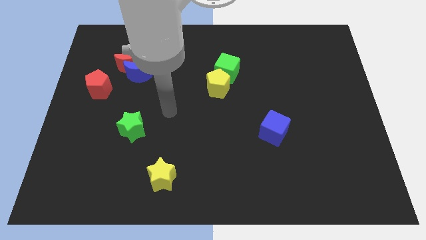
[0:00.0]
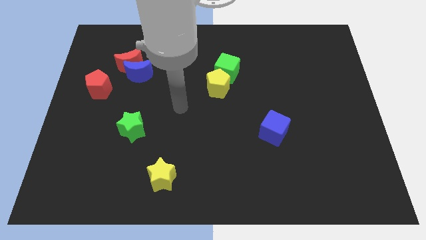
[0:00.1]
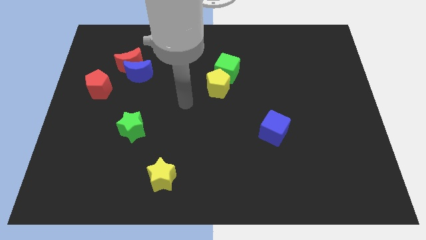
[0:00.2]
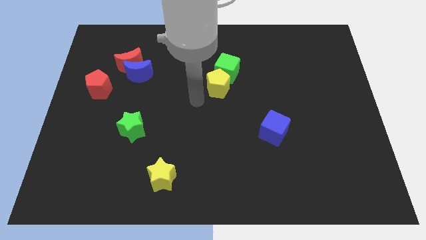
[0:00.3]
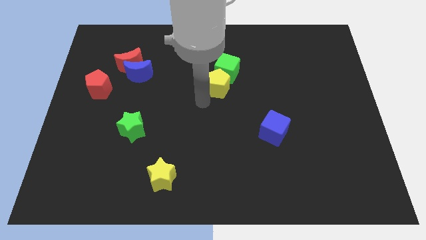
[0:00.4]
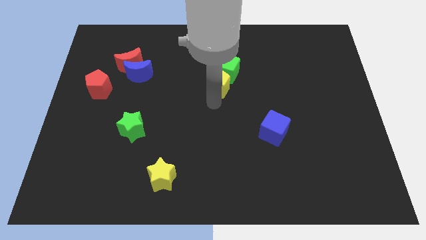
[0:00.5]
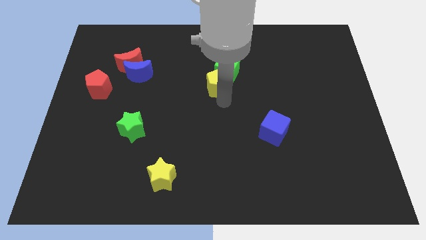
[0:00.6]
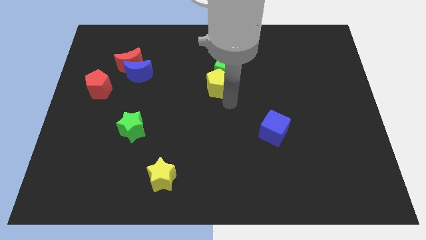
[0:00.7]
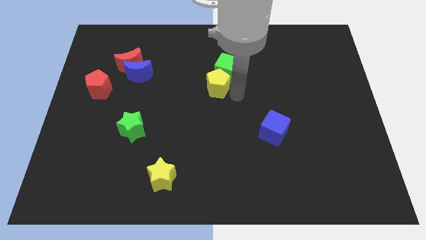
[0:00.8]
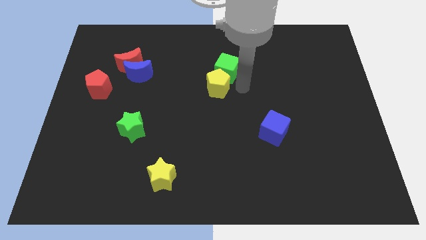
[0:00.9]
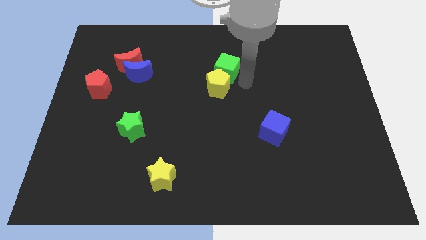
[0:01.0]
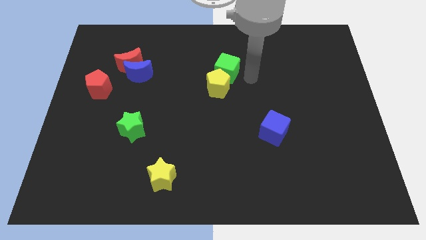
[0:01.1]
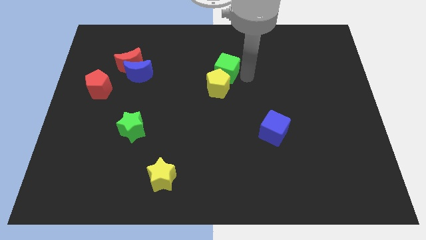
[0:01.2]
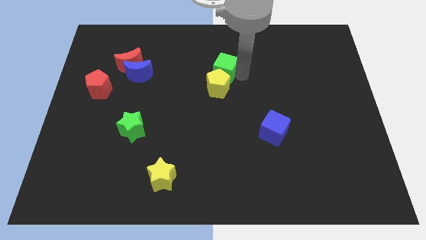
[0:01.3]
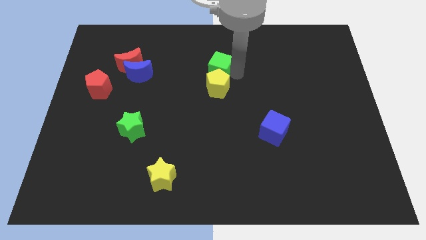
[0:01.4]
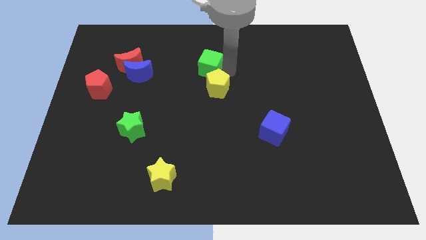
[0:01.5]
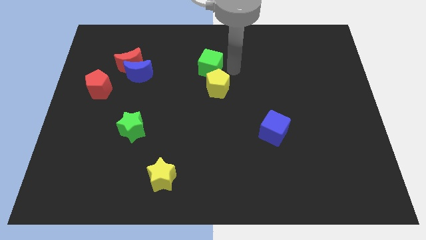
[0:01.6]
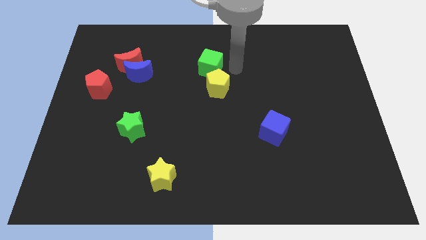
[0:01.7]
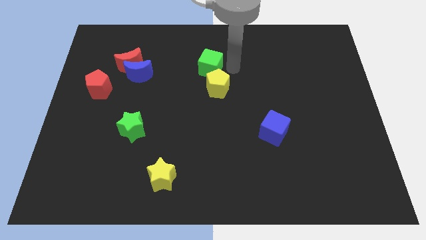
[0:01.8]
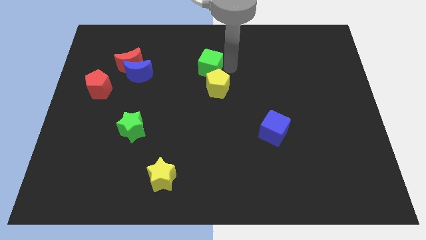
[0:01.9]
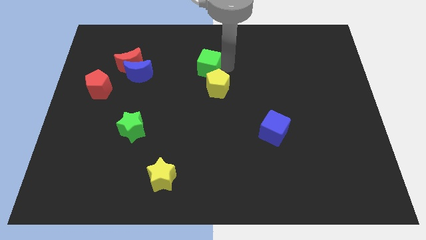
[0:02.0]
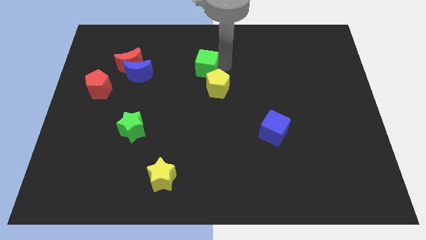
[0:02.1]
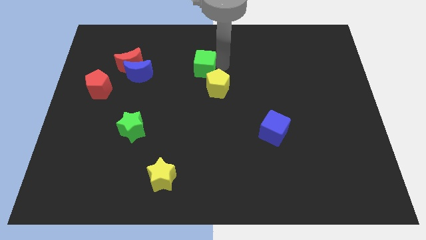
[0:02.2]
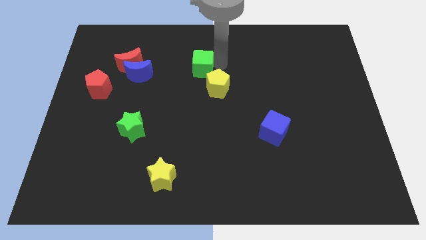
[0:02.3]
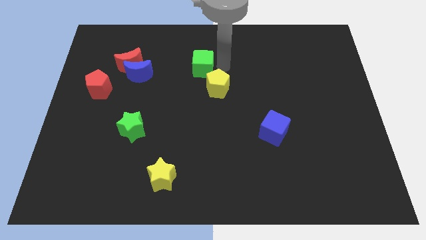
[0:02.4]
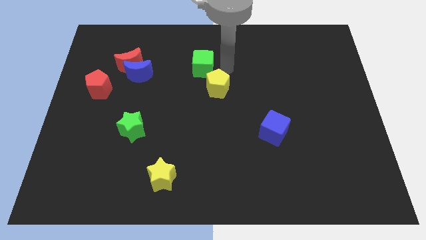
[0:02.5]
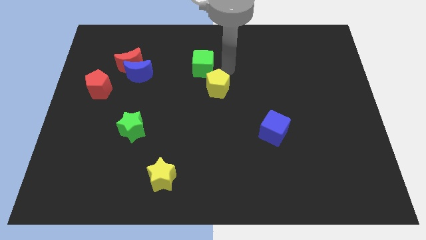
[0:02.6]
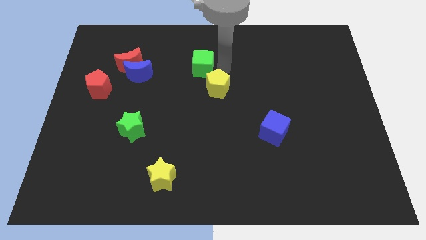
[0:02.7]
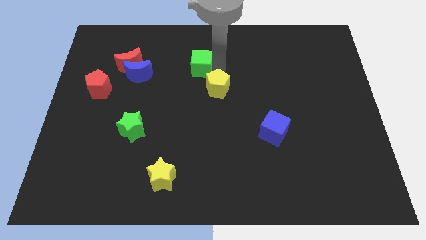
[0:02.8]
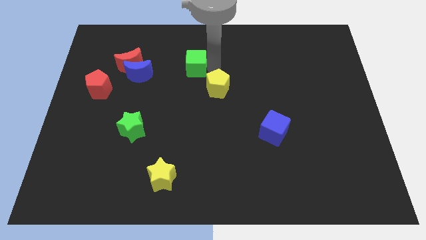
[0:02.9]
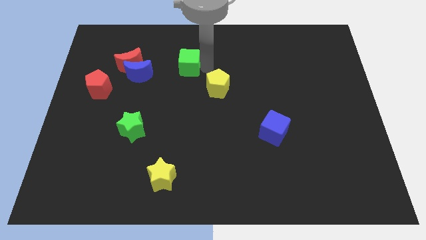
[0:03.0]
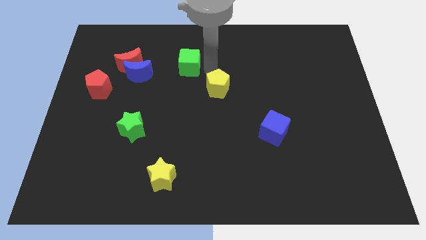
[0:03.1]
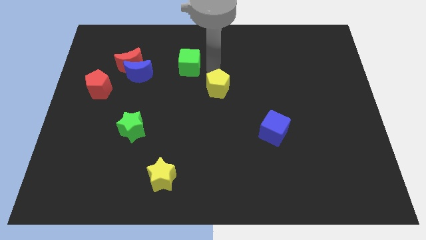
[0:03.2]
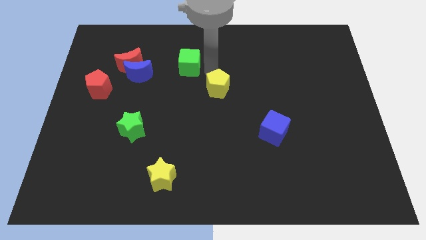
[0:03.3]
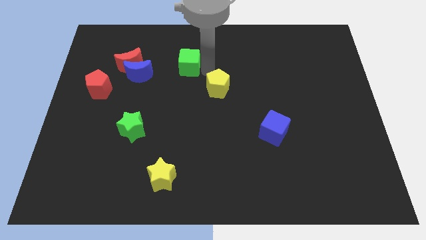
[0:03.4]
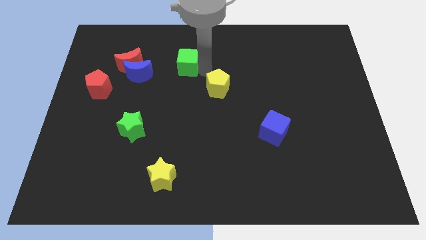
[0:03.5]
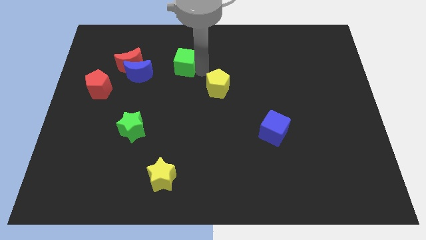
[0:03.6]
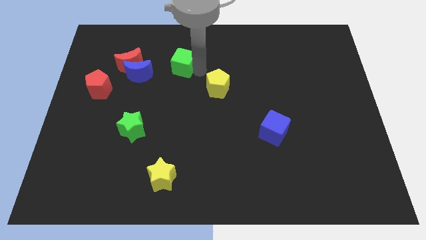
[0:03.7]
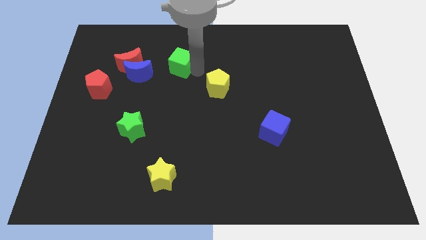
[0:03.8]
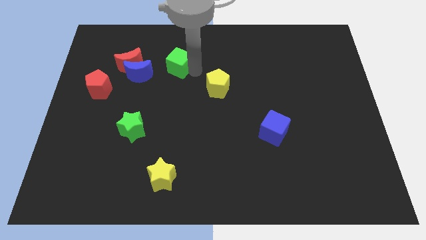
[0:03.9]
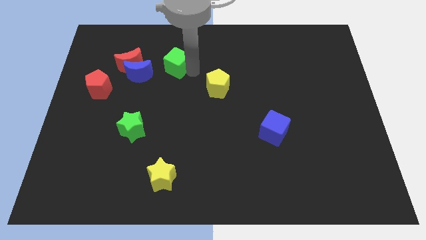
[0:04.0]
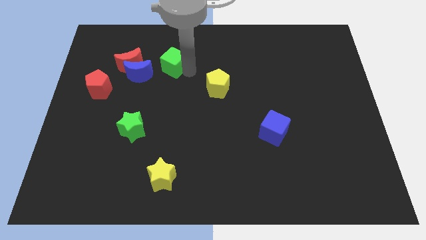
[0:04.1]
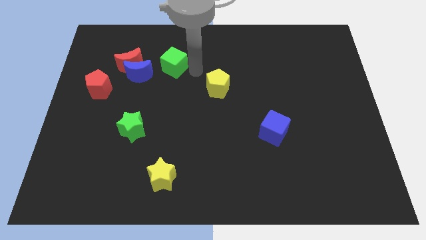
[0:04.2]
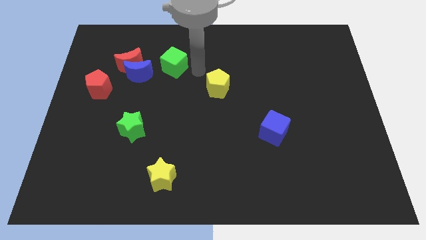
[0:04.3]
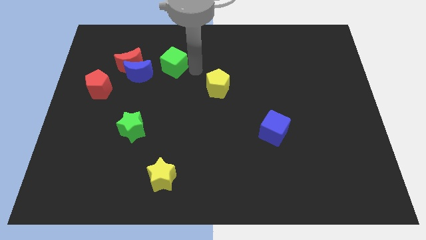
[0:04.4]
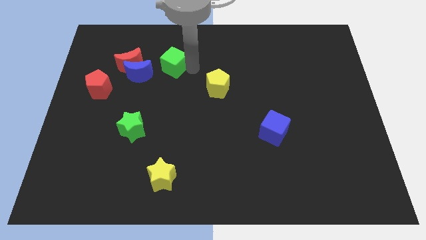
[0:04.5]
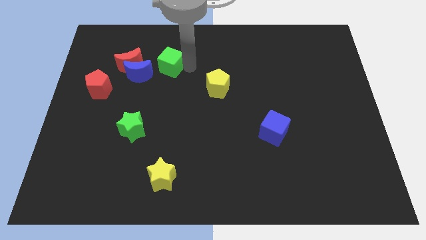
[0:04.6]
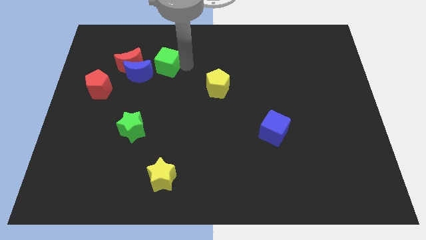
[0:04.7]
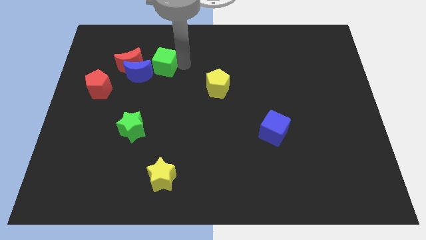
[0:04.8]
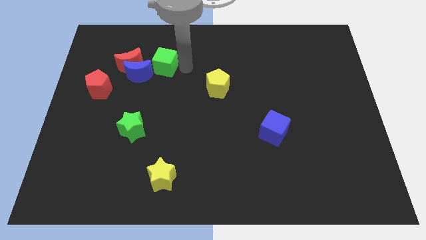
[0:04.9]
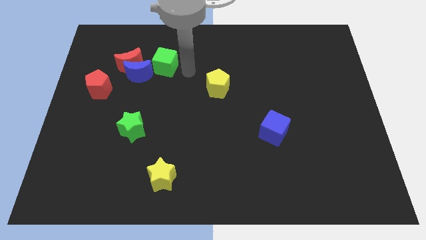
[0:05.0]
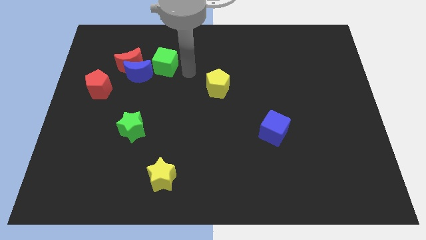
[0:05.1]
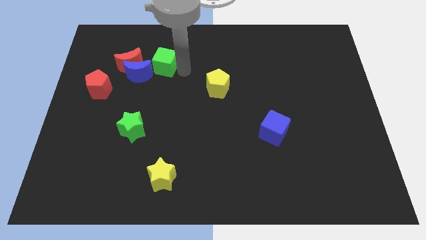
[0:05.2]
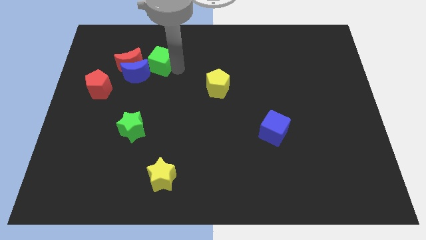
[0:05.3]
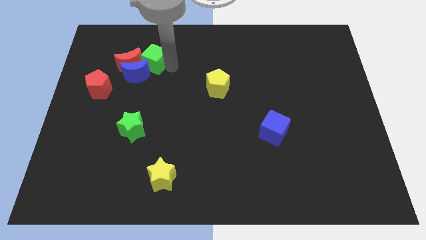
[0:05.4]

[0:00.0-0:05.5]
push the green cube next to the red moon

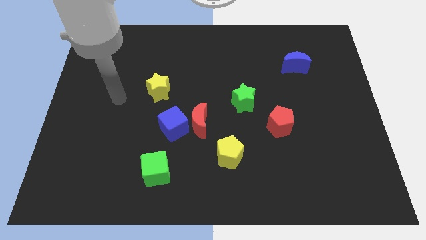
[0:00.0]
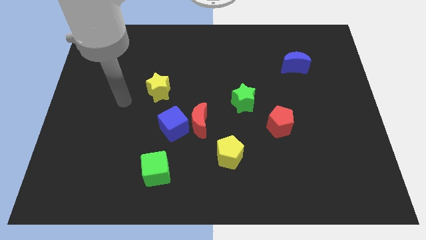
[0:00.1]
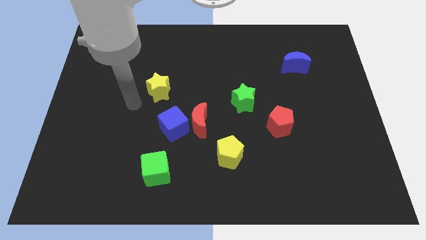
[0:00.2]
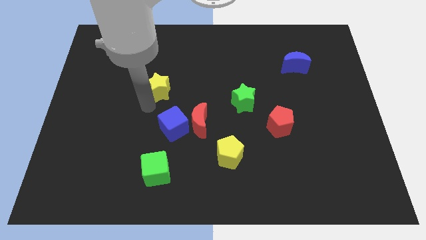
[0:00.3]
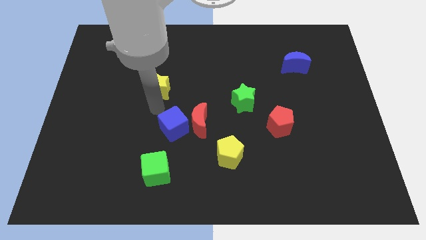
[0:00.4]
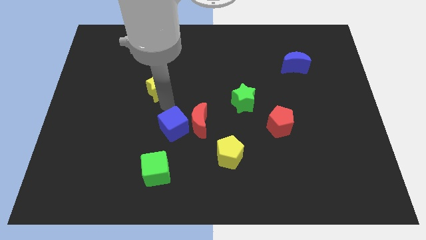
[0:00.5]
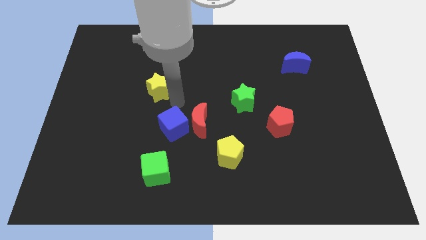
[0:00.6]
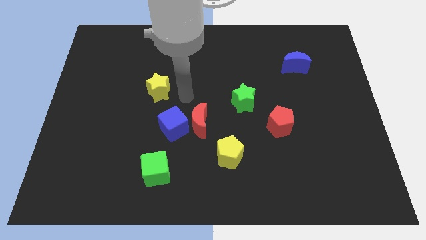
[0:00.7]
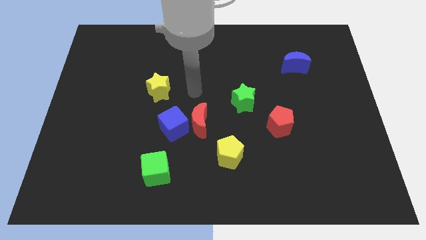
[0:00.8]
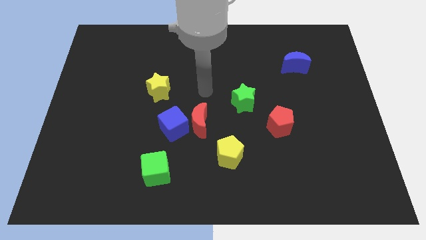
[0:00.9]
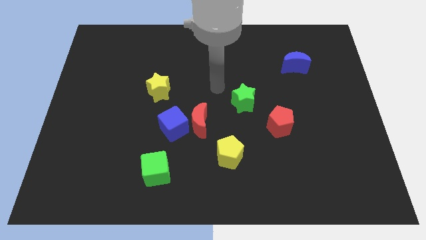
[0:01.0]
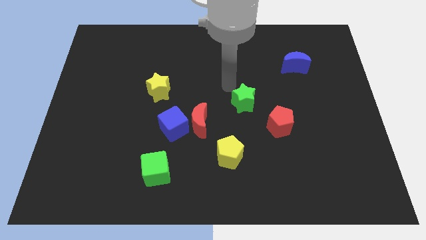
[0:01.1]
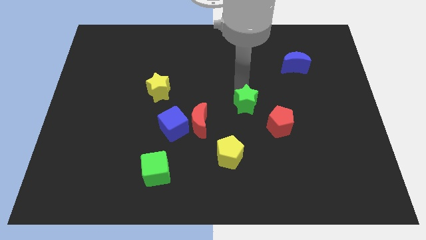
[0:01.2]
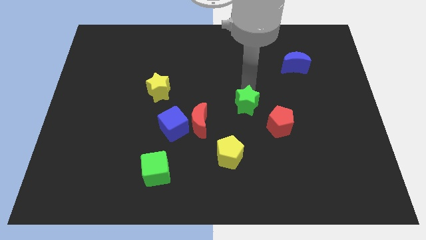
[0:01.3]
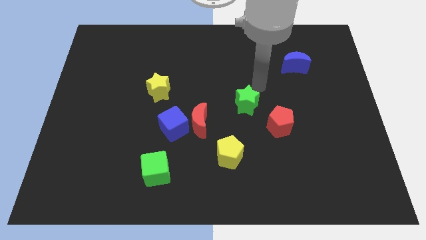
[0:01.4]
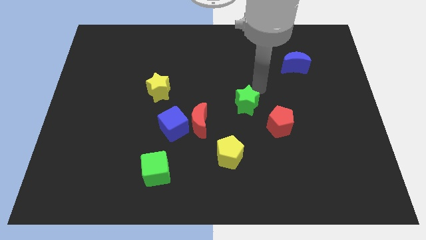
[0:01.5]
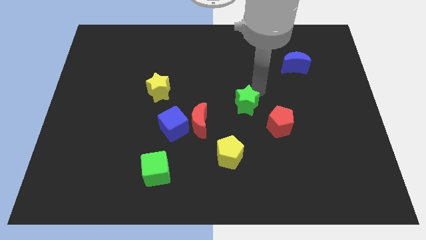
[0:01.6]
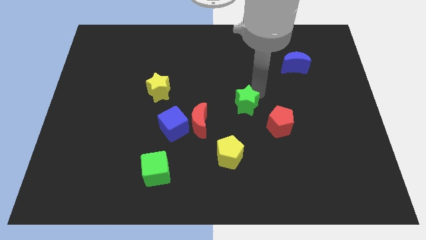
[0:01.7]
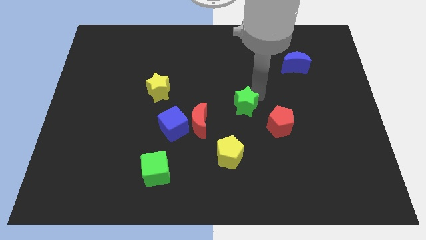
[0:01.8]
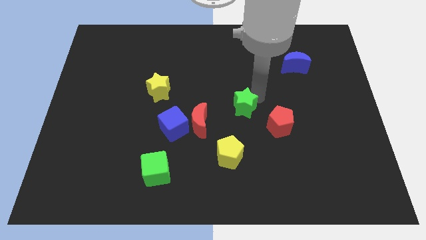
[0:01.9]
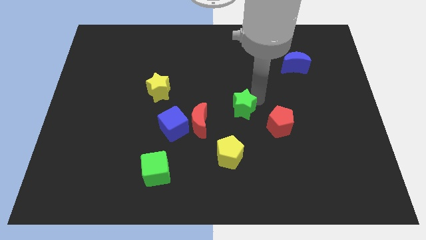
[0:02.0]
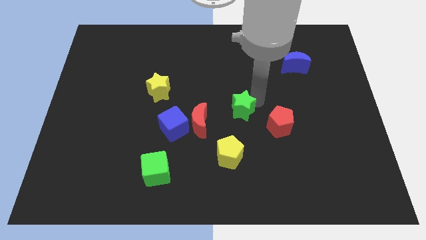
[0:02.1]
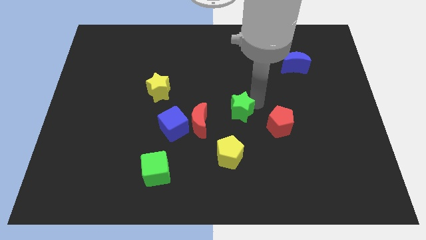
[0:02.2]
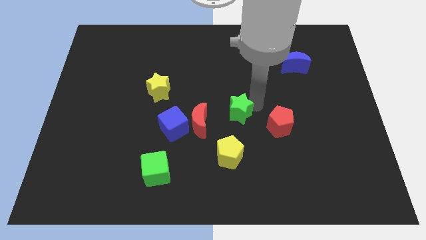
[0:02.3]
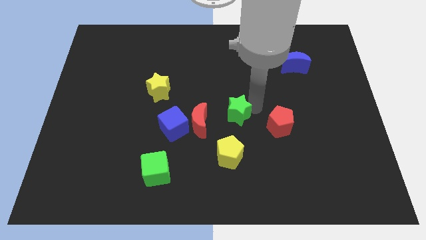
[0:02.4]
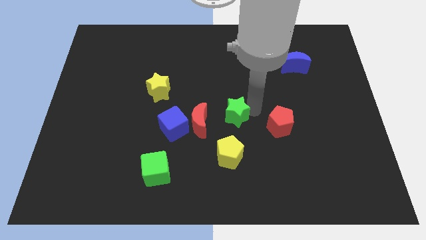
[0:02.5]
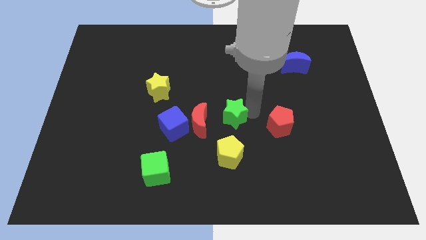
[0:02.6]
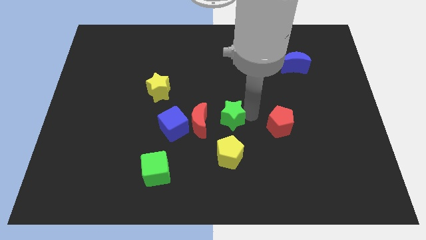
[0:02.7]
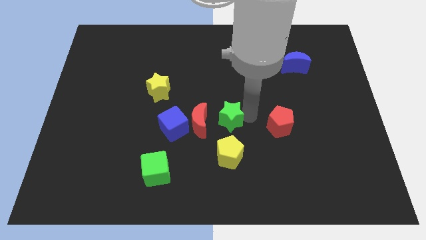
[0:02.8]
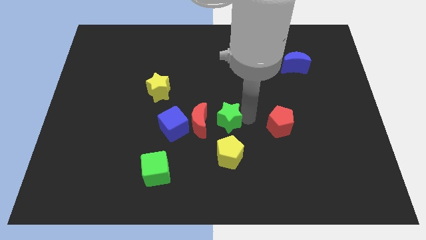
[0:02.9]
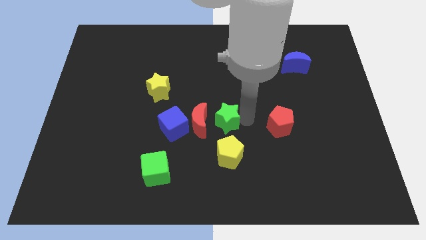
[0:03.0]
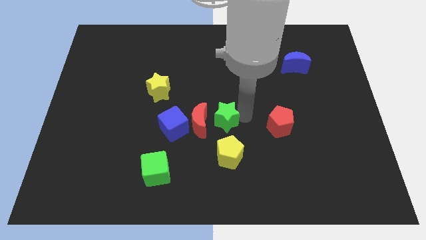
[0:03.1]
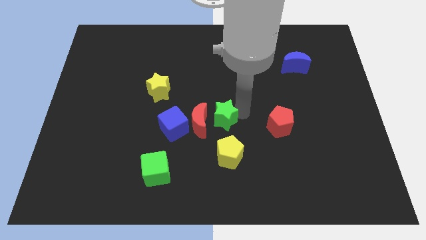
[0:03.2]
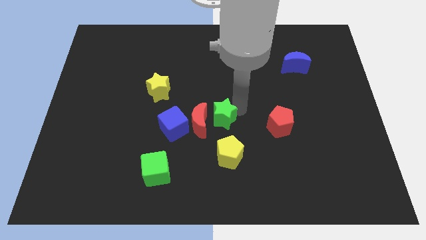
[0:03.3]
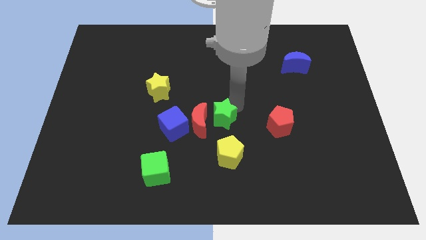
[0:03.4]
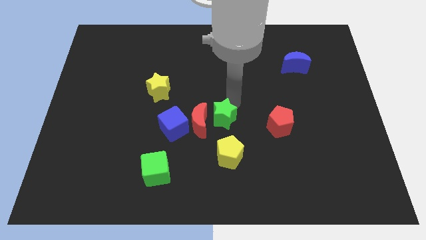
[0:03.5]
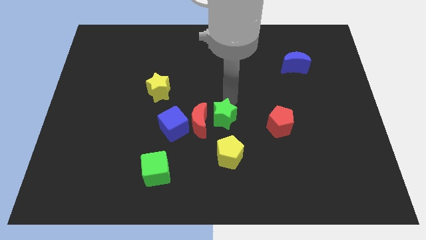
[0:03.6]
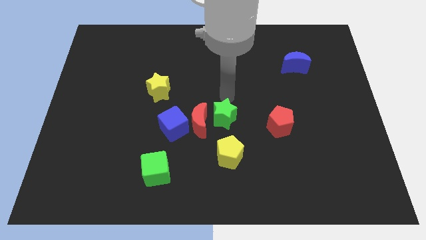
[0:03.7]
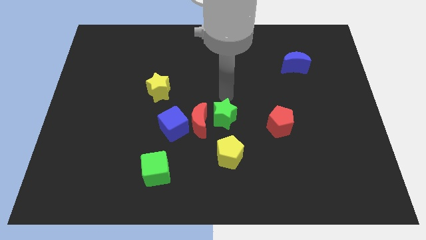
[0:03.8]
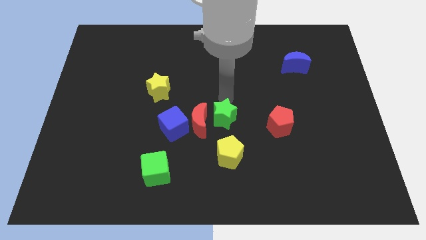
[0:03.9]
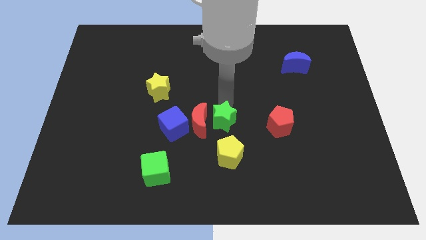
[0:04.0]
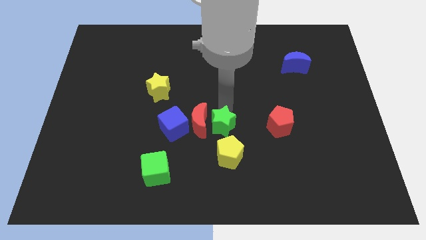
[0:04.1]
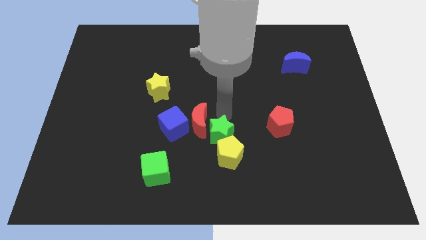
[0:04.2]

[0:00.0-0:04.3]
slide the green star next to the yellow pentagon
